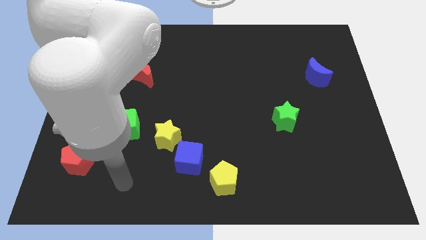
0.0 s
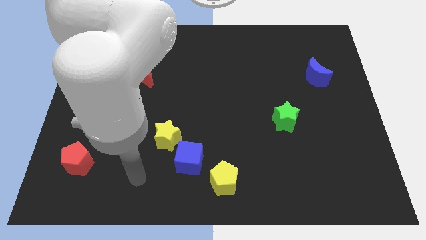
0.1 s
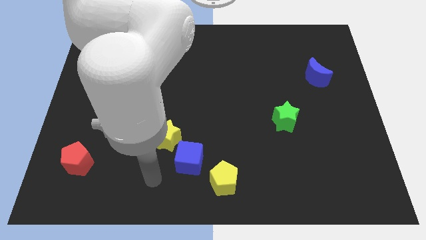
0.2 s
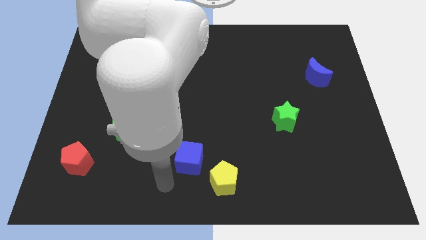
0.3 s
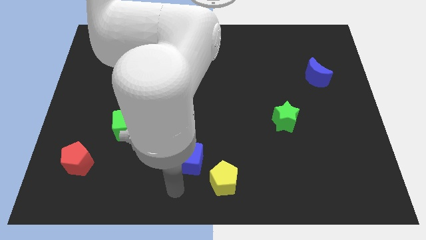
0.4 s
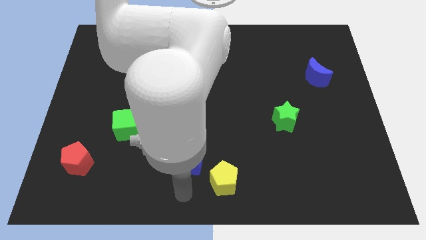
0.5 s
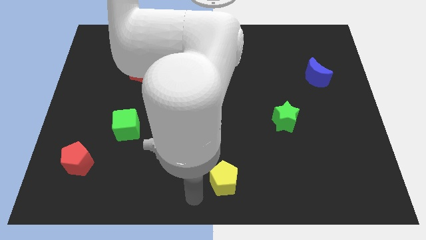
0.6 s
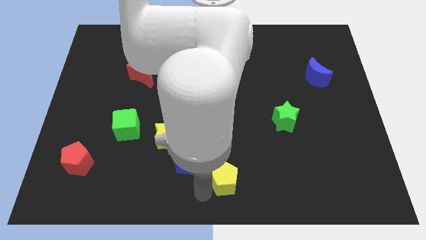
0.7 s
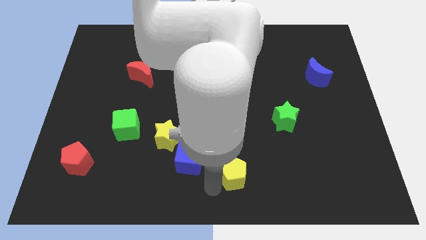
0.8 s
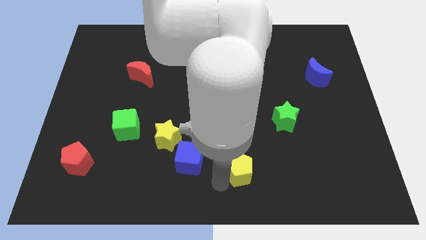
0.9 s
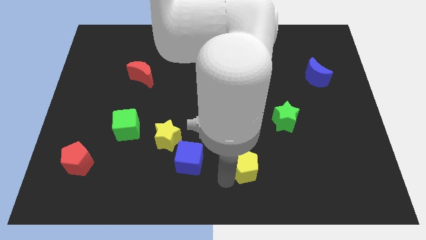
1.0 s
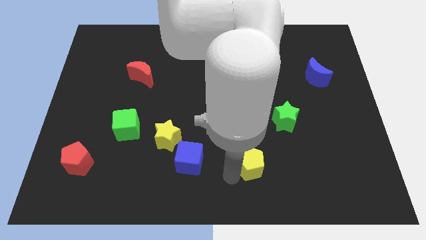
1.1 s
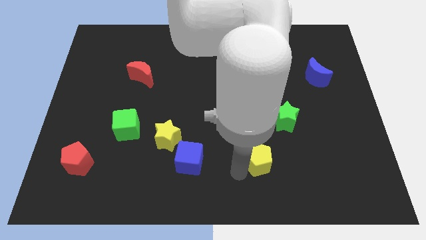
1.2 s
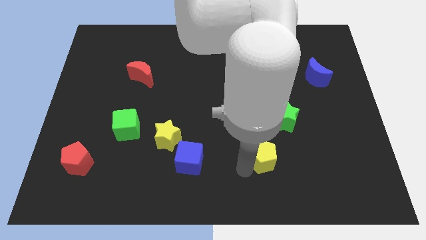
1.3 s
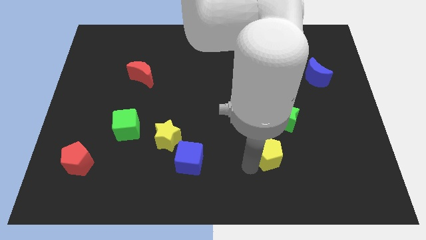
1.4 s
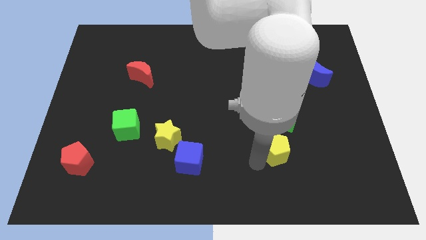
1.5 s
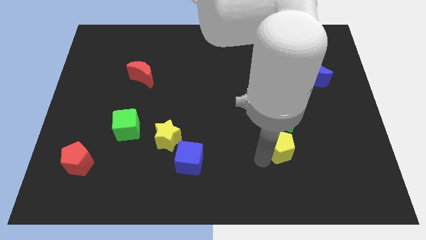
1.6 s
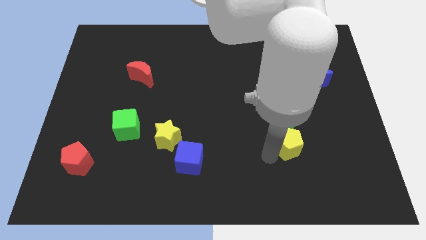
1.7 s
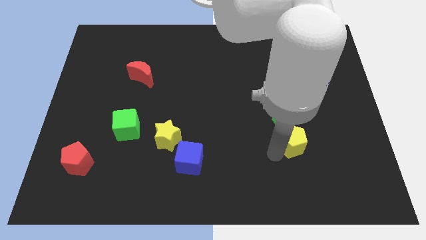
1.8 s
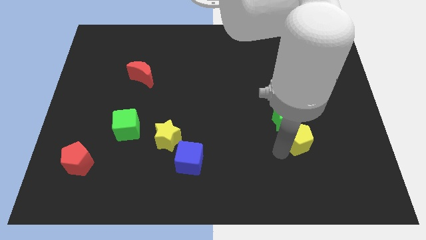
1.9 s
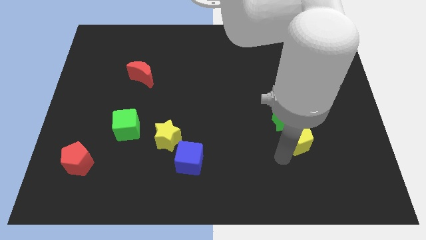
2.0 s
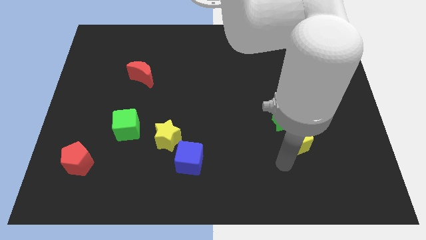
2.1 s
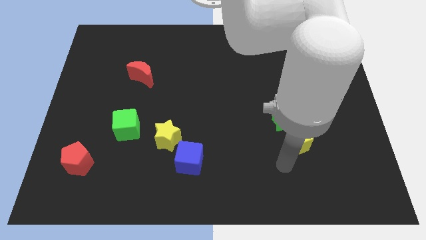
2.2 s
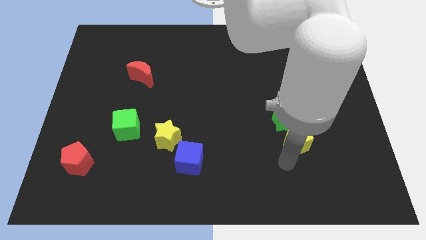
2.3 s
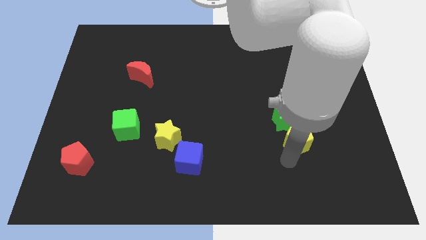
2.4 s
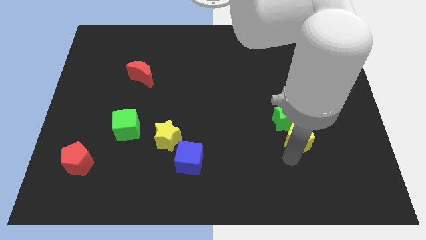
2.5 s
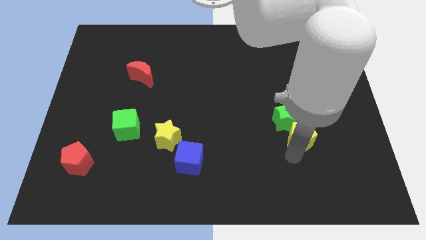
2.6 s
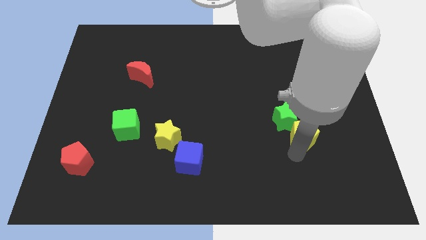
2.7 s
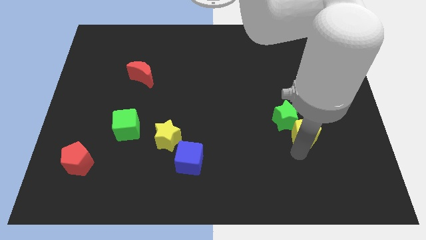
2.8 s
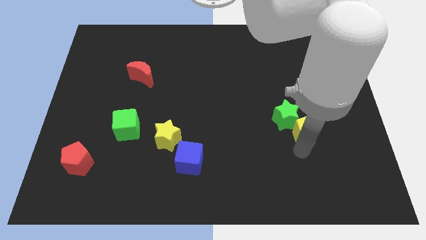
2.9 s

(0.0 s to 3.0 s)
push the yellow pentagon upwards and to the right

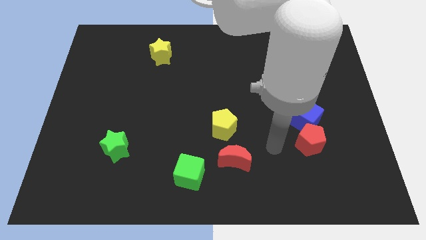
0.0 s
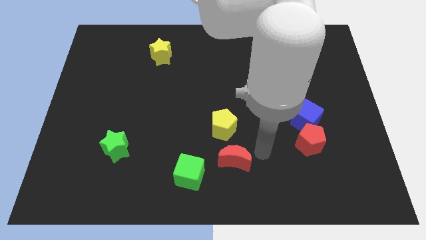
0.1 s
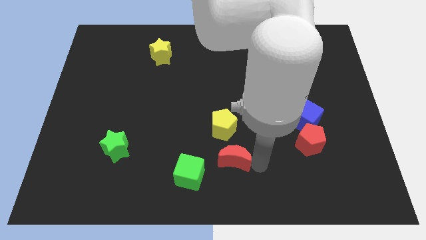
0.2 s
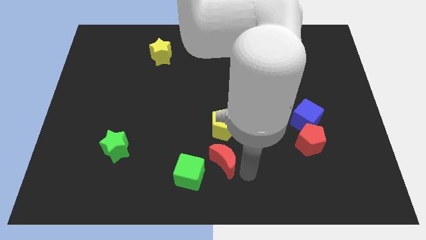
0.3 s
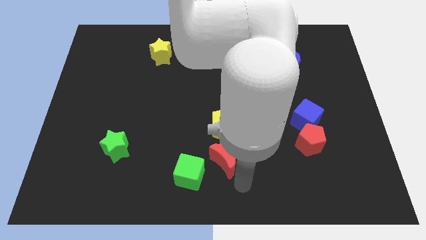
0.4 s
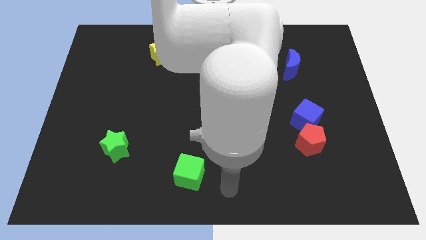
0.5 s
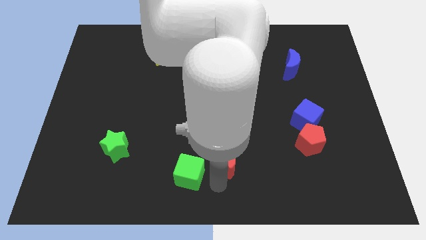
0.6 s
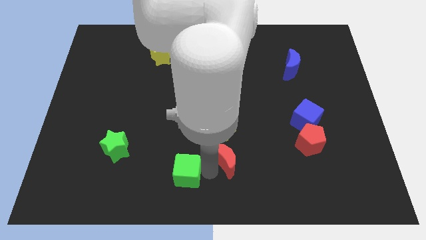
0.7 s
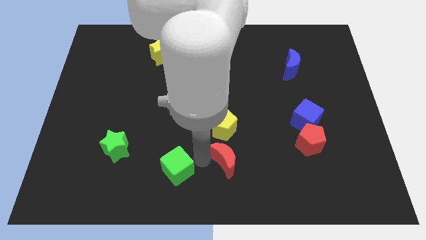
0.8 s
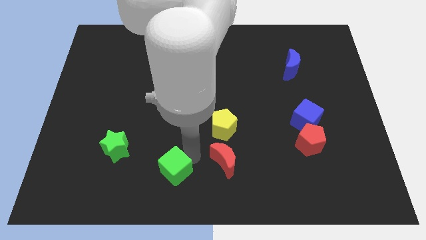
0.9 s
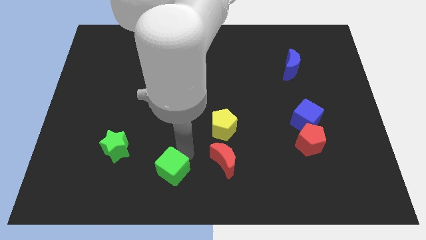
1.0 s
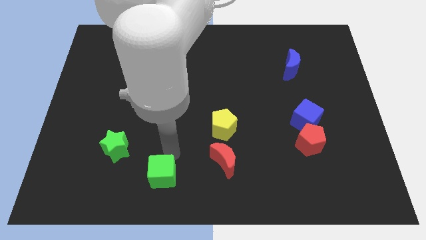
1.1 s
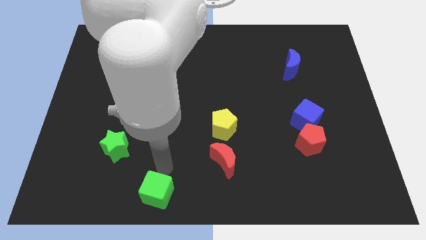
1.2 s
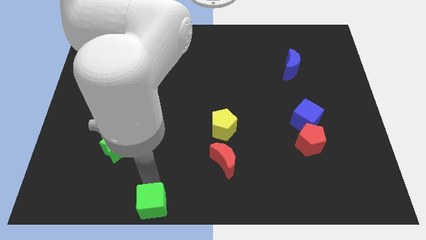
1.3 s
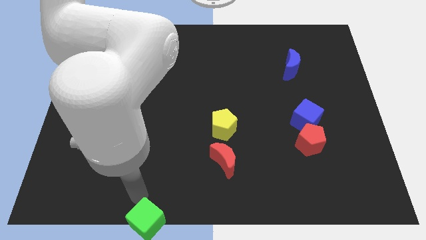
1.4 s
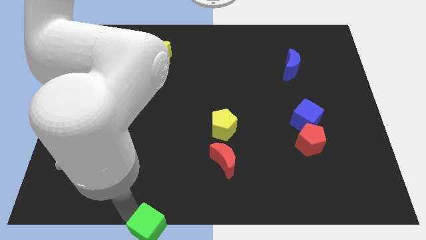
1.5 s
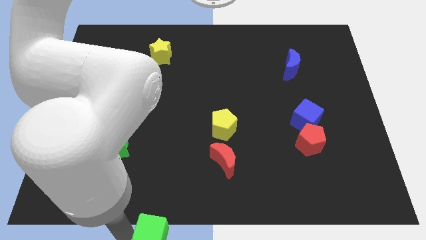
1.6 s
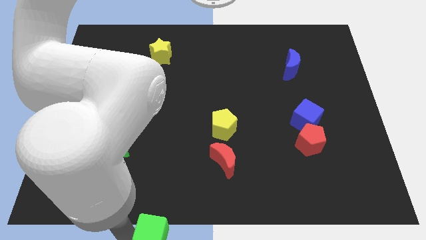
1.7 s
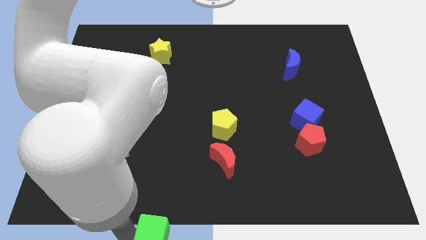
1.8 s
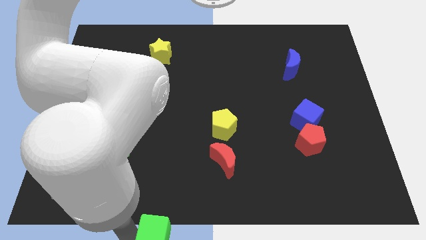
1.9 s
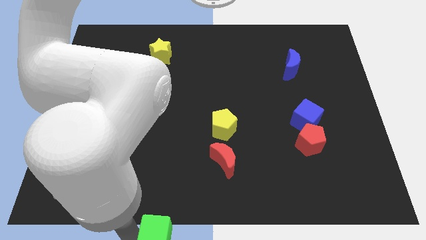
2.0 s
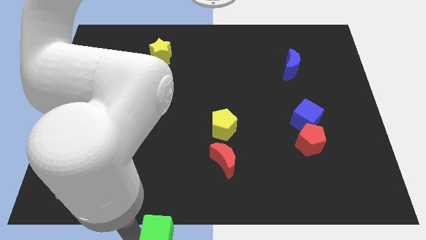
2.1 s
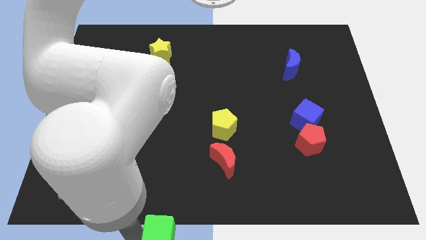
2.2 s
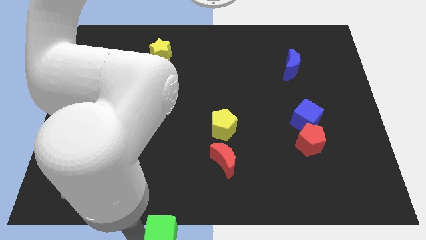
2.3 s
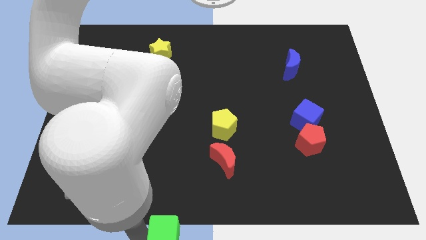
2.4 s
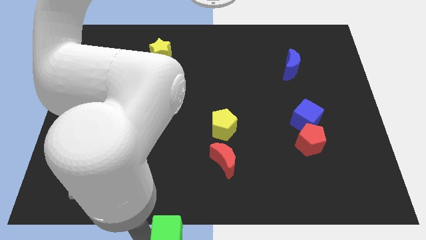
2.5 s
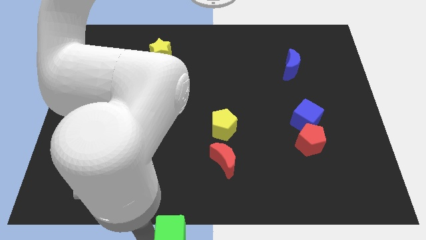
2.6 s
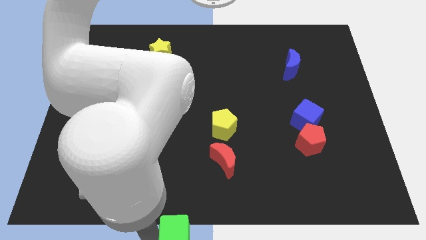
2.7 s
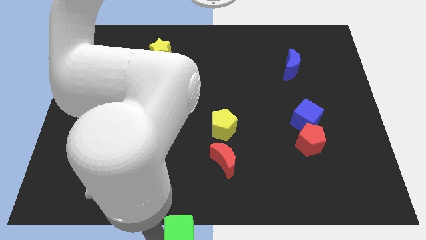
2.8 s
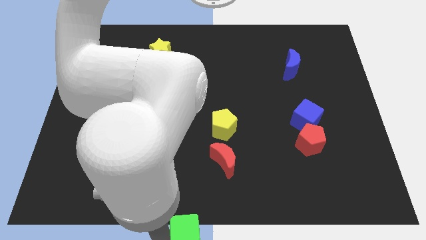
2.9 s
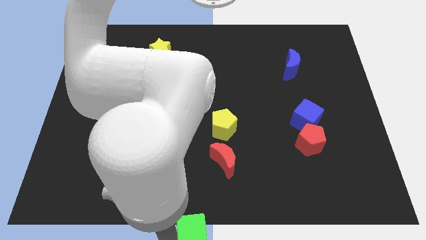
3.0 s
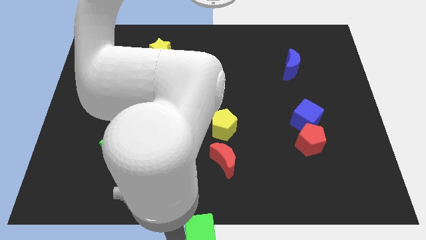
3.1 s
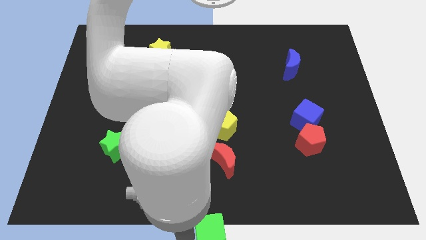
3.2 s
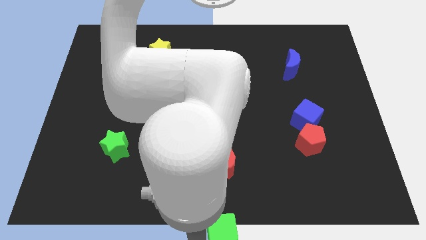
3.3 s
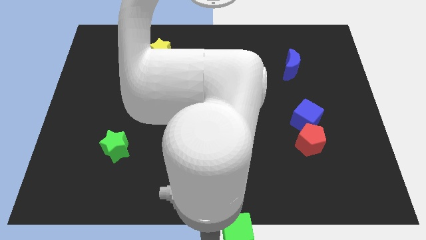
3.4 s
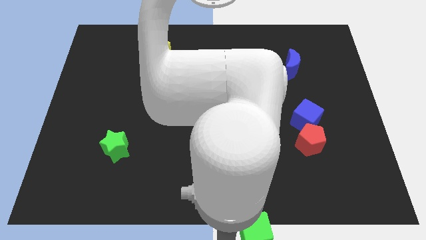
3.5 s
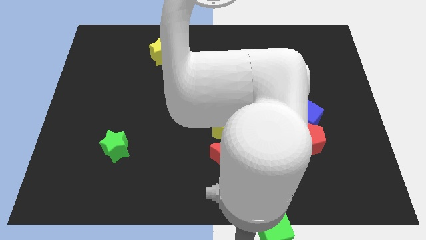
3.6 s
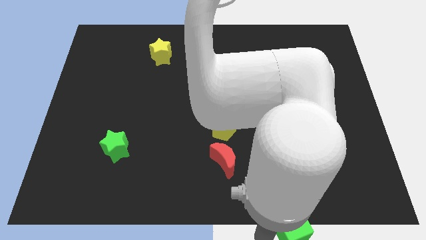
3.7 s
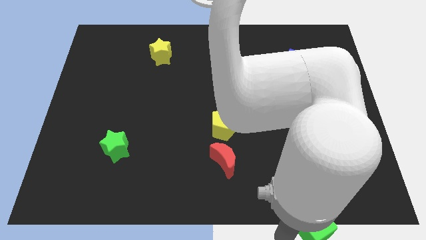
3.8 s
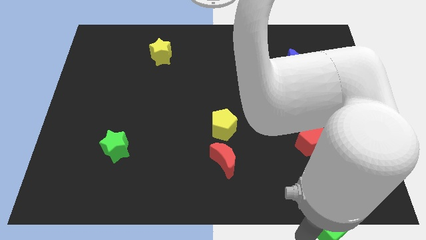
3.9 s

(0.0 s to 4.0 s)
slide the green cube right

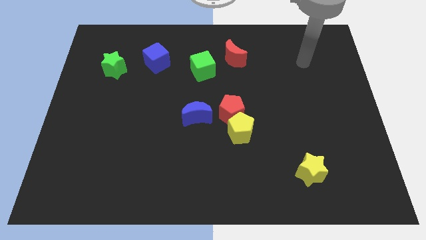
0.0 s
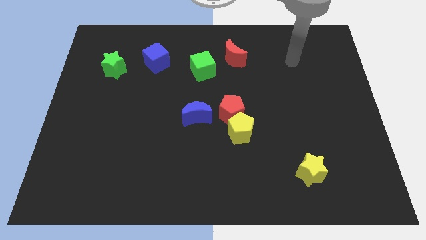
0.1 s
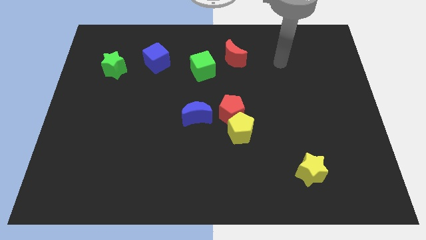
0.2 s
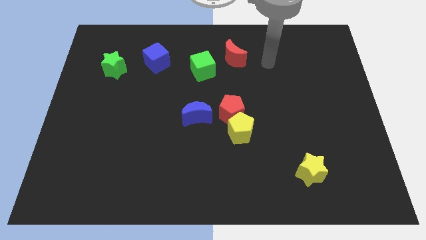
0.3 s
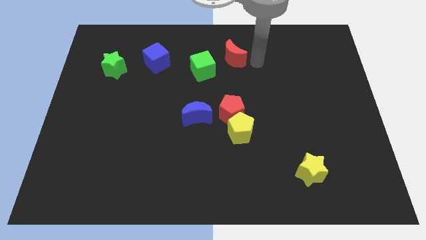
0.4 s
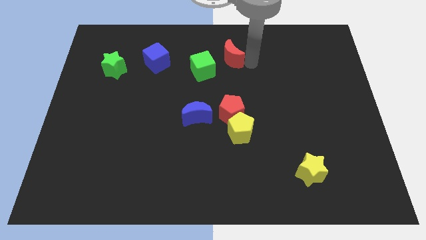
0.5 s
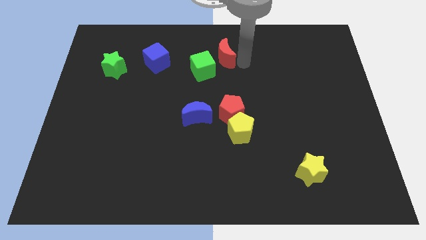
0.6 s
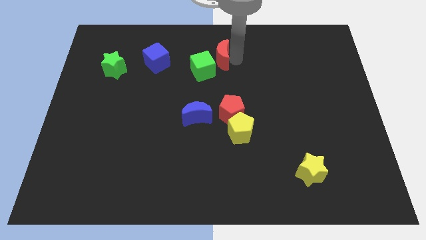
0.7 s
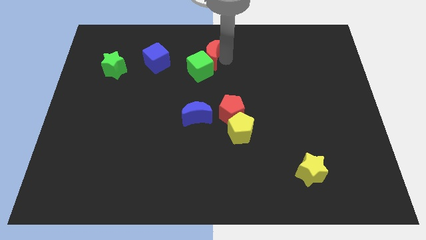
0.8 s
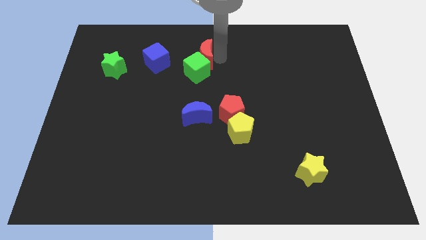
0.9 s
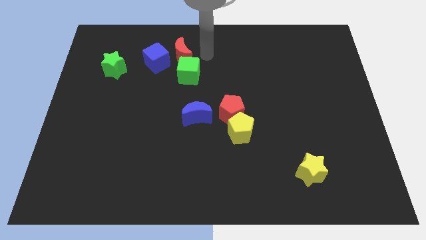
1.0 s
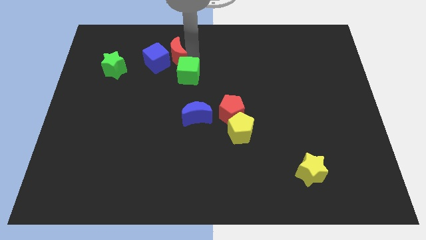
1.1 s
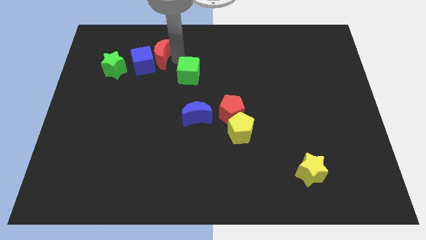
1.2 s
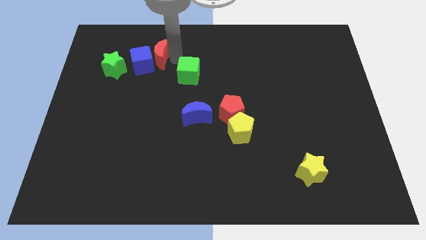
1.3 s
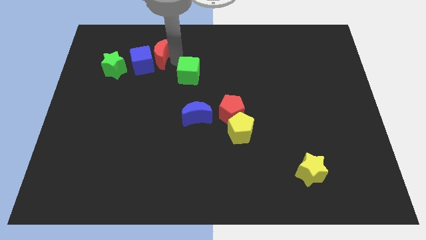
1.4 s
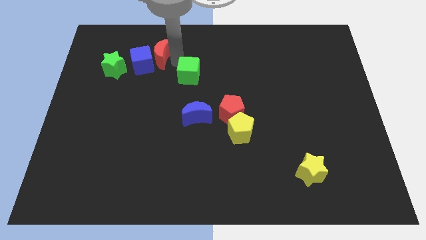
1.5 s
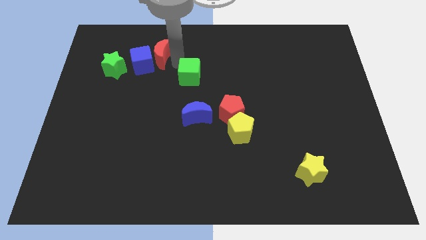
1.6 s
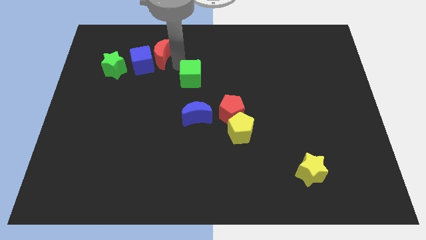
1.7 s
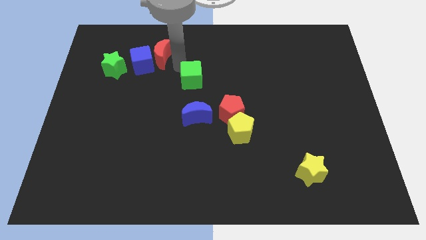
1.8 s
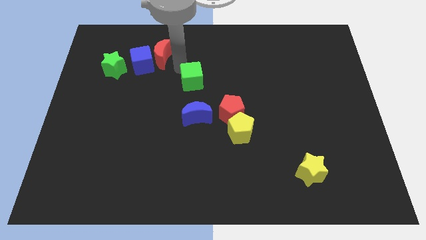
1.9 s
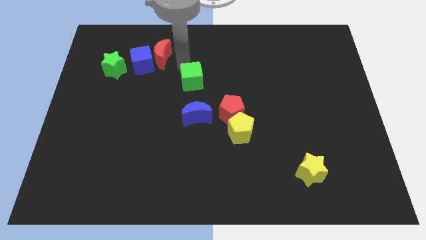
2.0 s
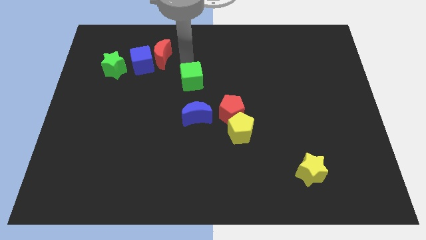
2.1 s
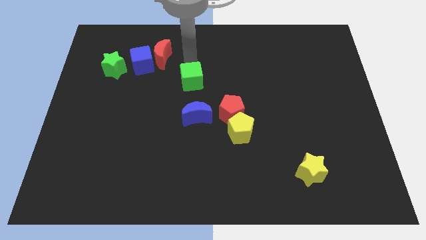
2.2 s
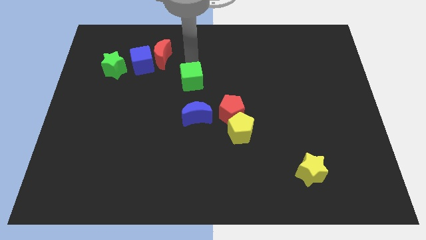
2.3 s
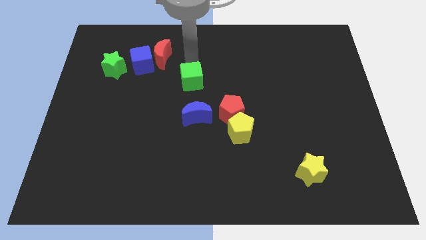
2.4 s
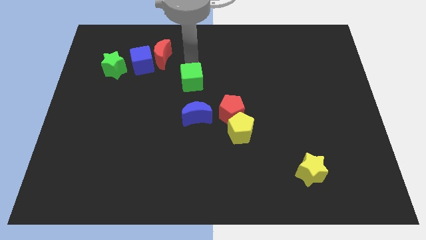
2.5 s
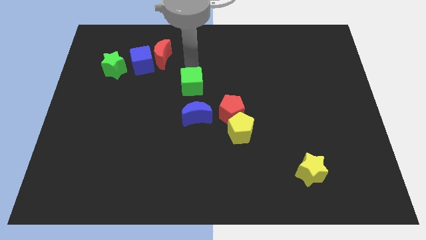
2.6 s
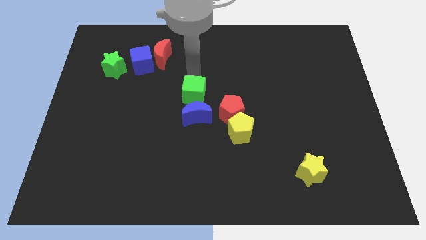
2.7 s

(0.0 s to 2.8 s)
push the green cube a little downwards
